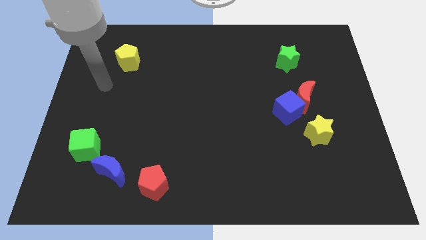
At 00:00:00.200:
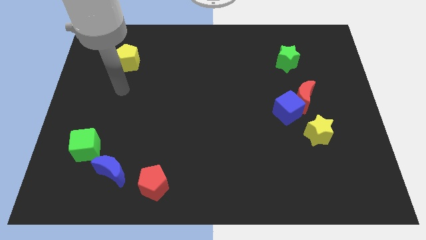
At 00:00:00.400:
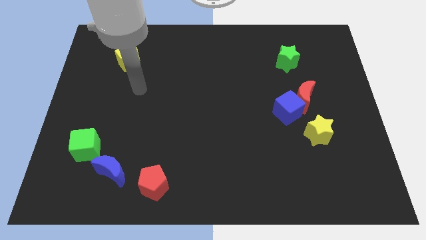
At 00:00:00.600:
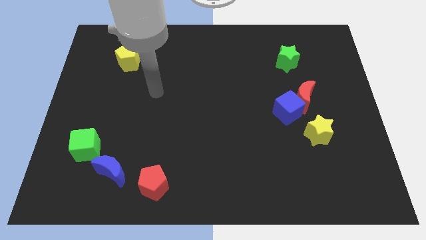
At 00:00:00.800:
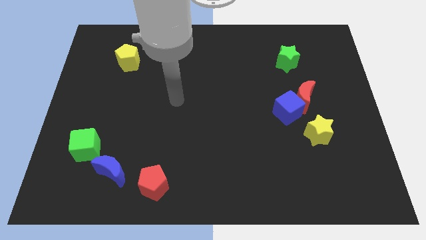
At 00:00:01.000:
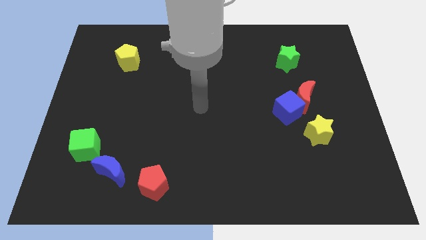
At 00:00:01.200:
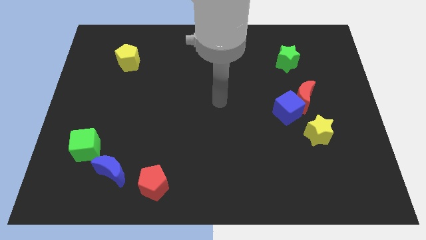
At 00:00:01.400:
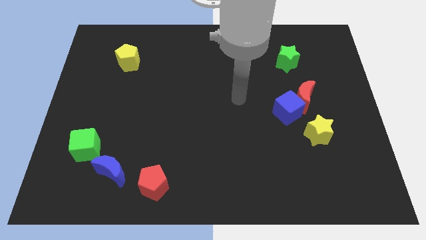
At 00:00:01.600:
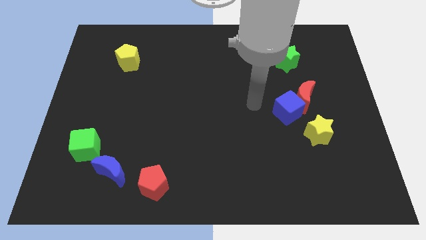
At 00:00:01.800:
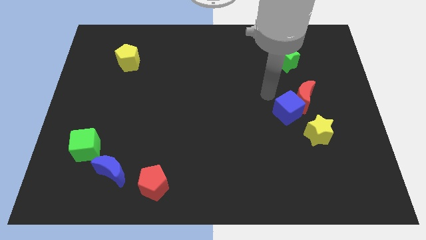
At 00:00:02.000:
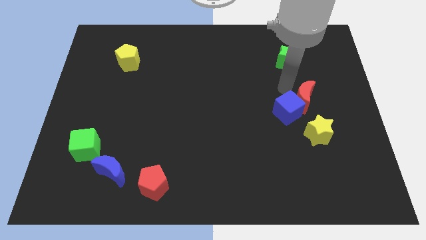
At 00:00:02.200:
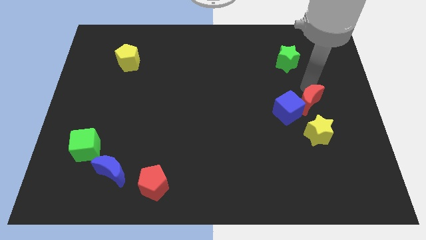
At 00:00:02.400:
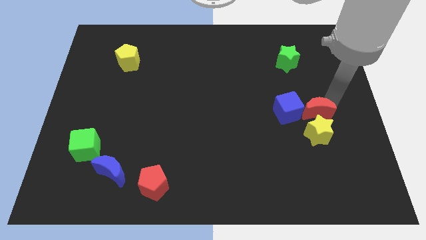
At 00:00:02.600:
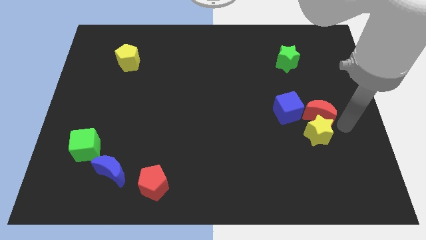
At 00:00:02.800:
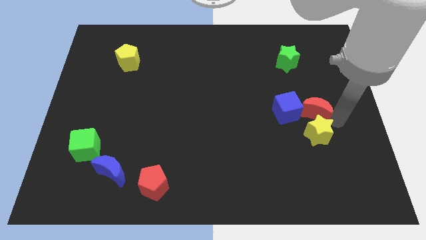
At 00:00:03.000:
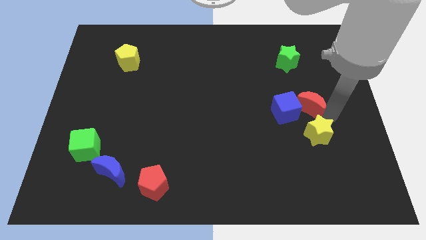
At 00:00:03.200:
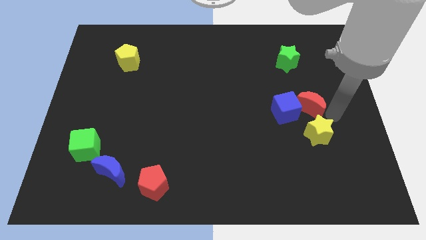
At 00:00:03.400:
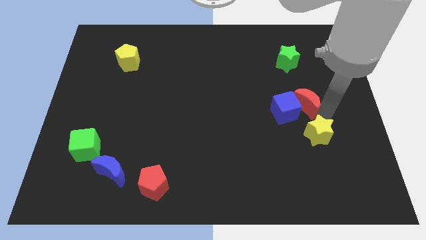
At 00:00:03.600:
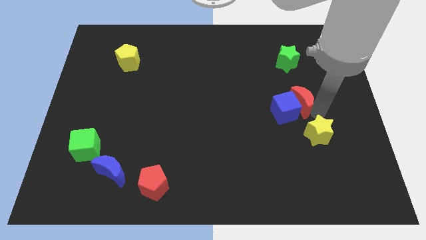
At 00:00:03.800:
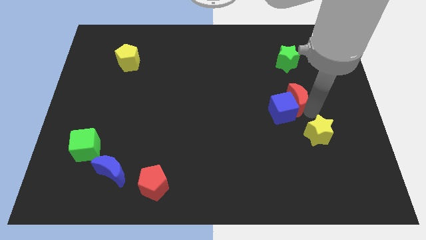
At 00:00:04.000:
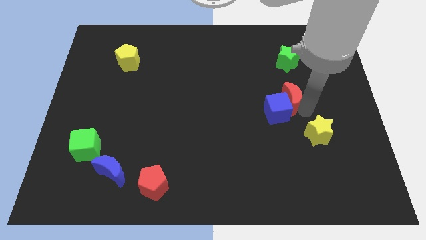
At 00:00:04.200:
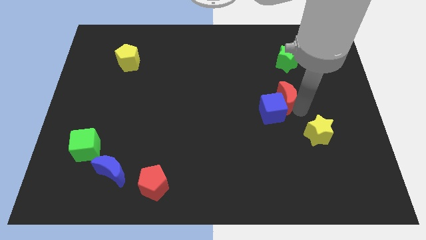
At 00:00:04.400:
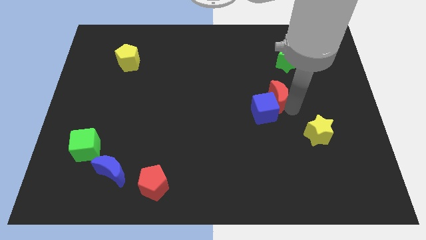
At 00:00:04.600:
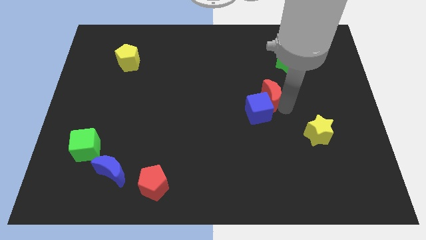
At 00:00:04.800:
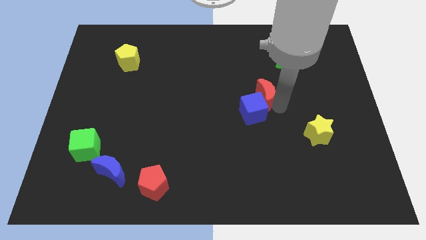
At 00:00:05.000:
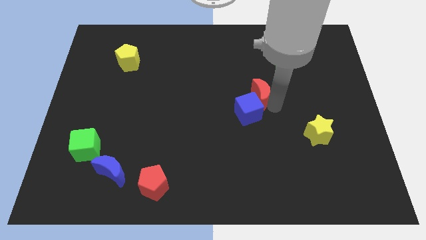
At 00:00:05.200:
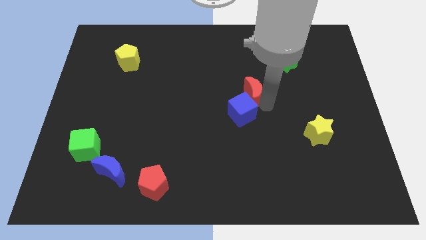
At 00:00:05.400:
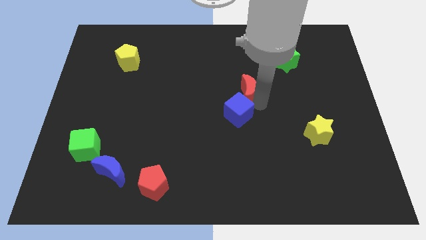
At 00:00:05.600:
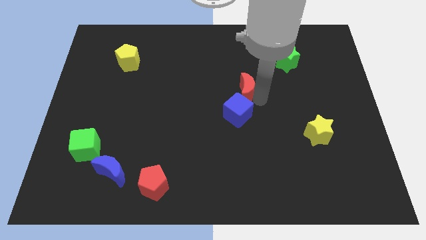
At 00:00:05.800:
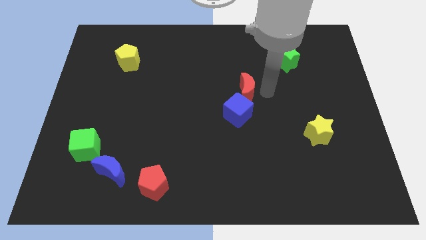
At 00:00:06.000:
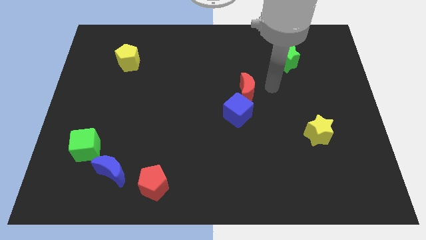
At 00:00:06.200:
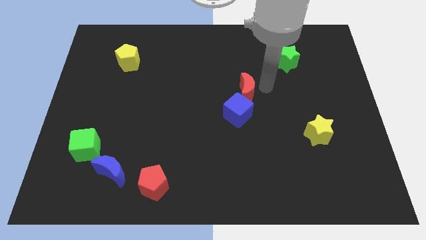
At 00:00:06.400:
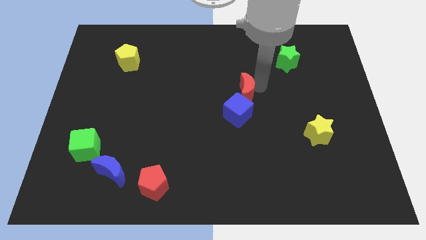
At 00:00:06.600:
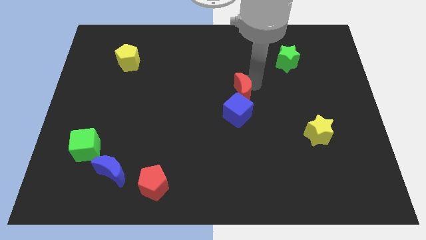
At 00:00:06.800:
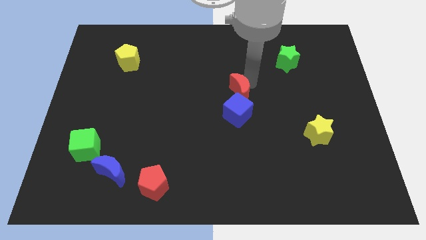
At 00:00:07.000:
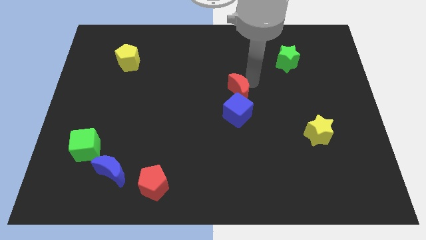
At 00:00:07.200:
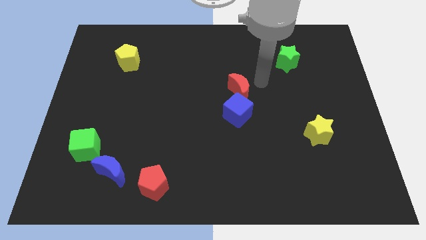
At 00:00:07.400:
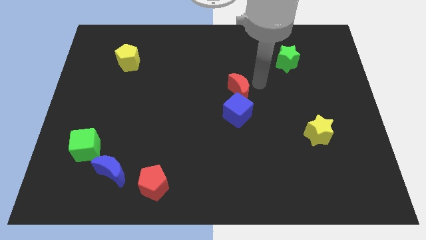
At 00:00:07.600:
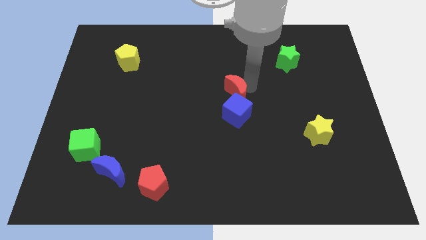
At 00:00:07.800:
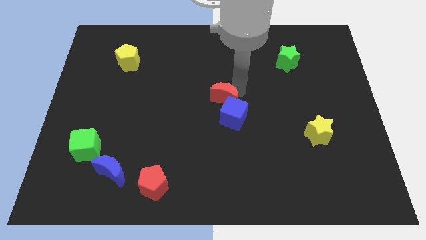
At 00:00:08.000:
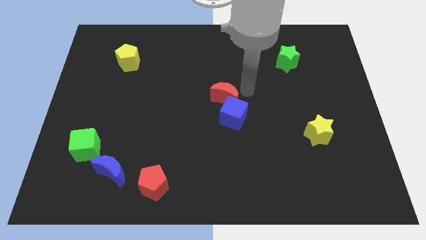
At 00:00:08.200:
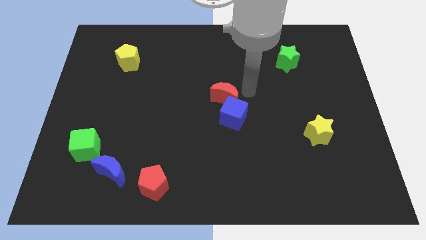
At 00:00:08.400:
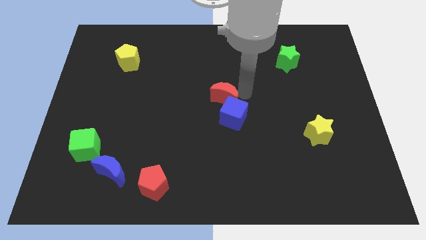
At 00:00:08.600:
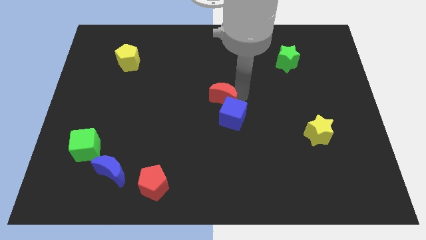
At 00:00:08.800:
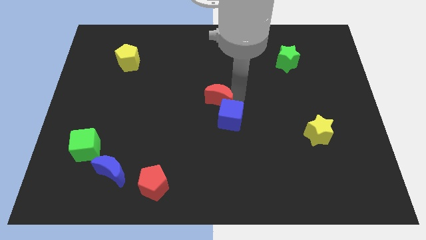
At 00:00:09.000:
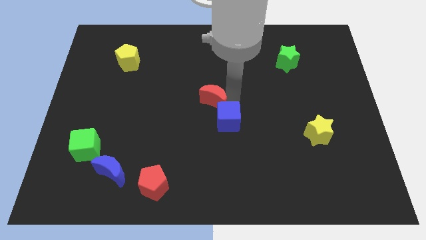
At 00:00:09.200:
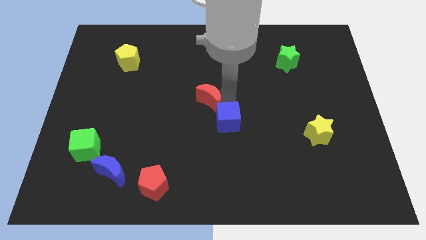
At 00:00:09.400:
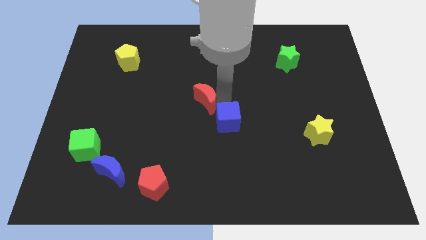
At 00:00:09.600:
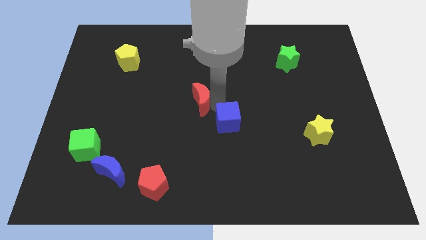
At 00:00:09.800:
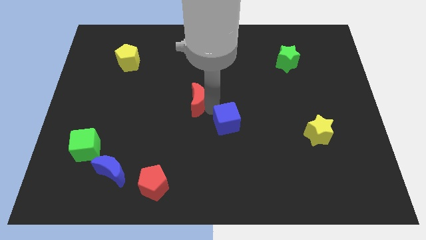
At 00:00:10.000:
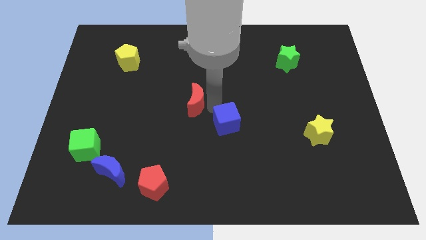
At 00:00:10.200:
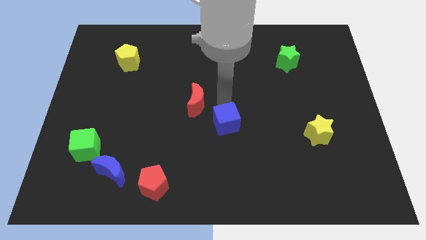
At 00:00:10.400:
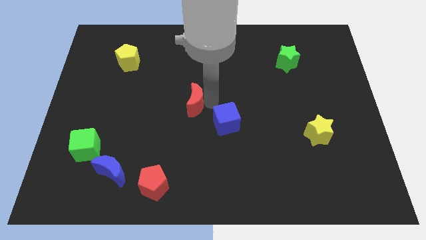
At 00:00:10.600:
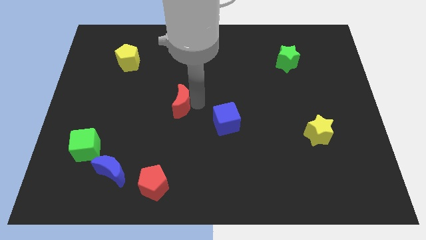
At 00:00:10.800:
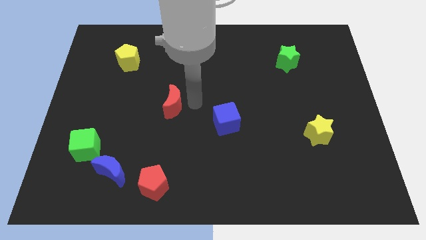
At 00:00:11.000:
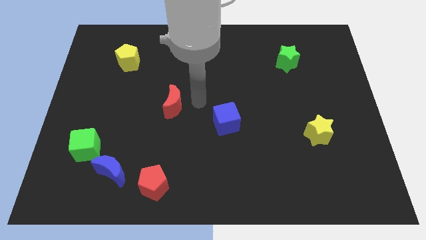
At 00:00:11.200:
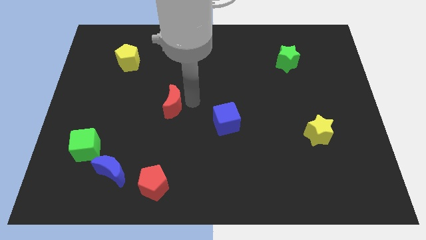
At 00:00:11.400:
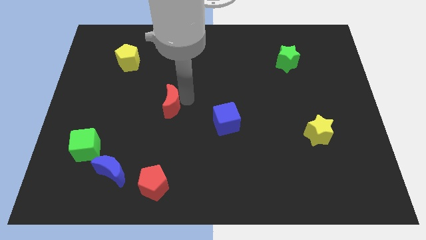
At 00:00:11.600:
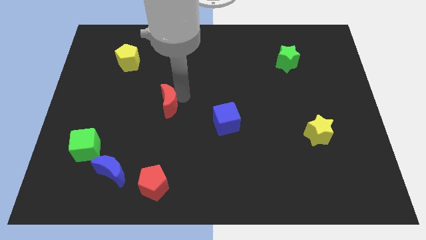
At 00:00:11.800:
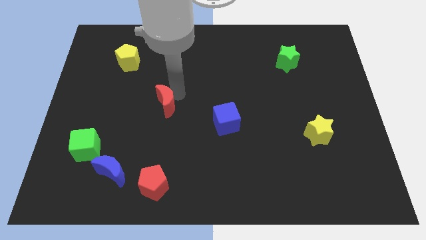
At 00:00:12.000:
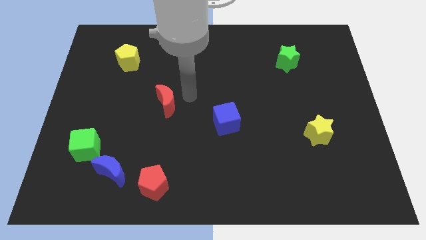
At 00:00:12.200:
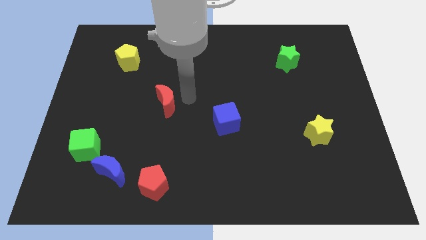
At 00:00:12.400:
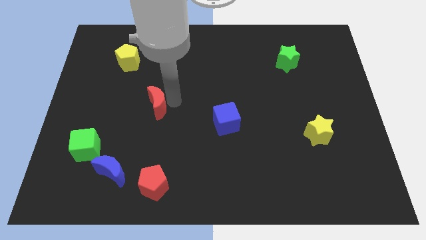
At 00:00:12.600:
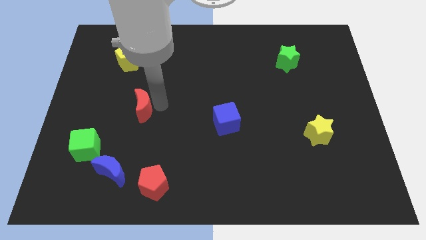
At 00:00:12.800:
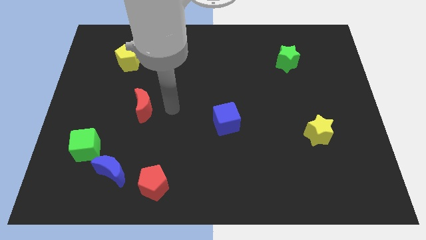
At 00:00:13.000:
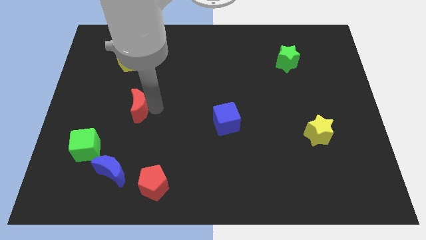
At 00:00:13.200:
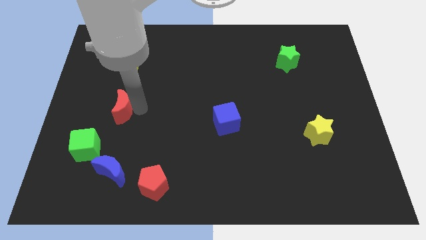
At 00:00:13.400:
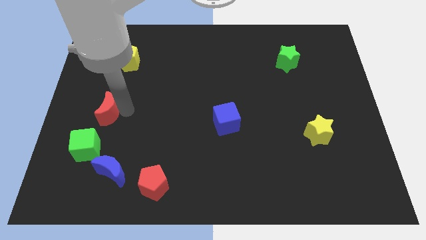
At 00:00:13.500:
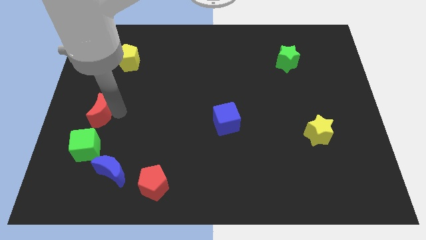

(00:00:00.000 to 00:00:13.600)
put the red moon to the left side
